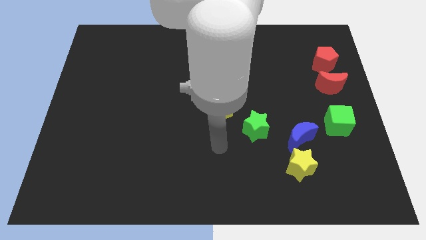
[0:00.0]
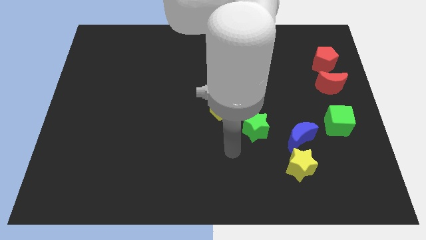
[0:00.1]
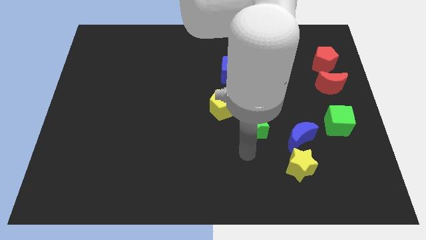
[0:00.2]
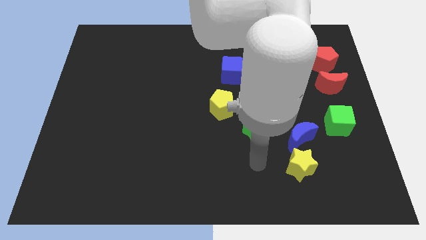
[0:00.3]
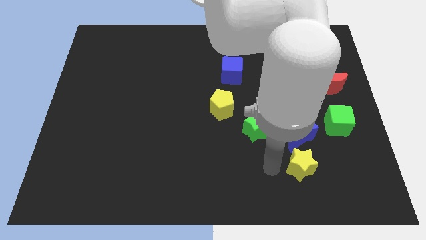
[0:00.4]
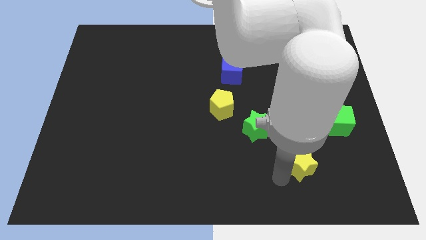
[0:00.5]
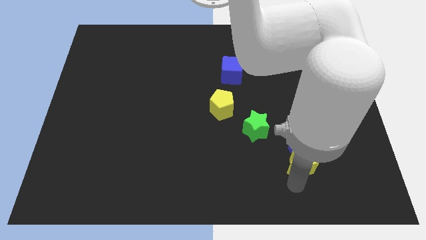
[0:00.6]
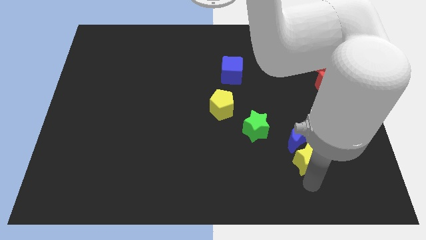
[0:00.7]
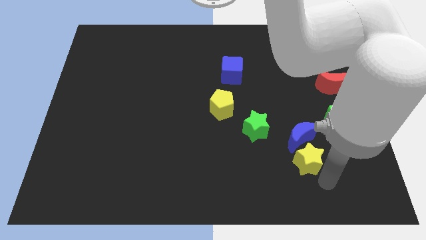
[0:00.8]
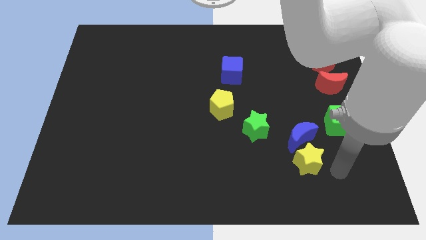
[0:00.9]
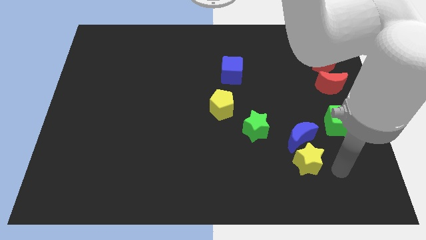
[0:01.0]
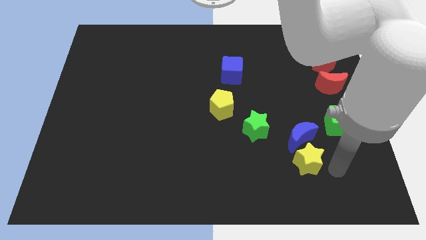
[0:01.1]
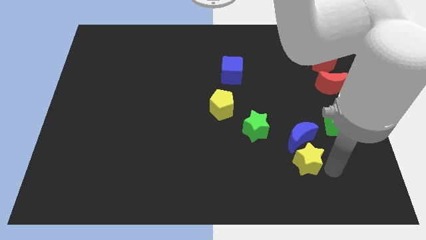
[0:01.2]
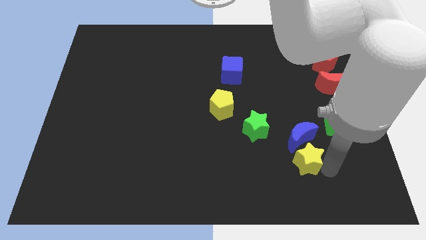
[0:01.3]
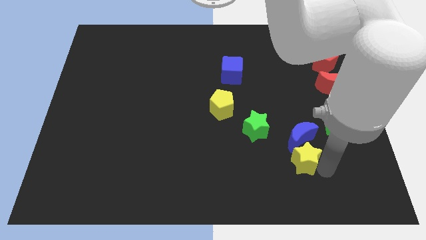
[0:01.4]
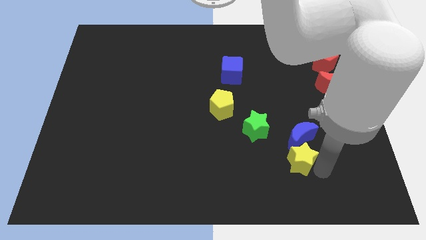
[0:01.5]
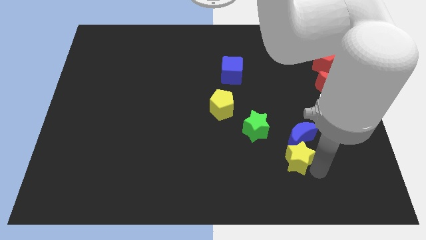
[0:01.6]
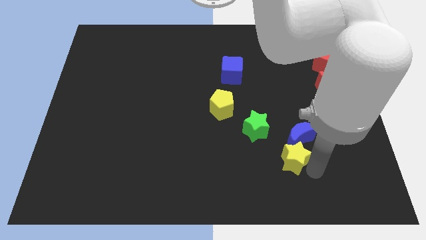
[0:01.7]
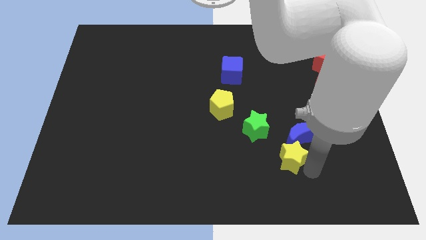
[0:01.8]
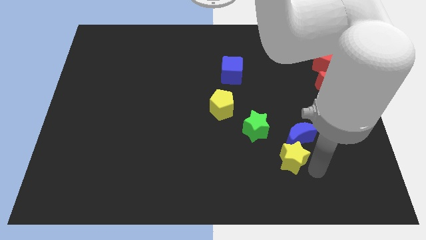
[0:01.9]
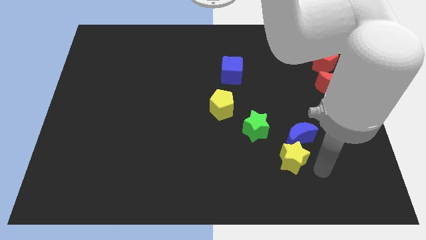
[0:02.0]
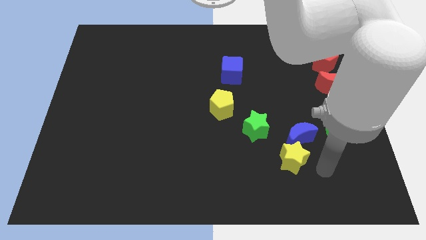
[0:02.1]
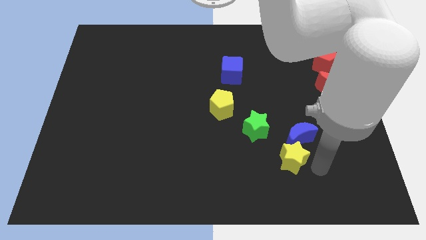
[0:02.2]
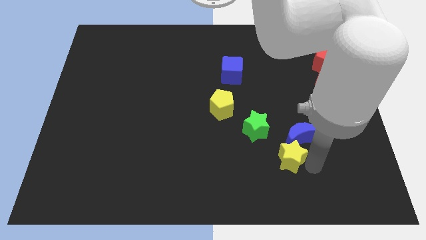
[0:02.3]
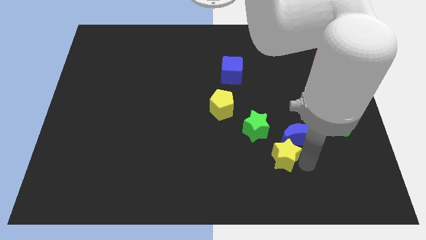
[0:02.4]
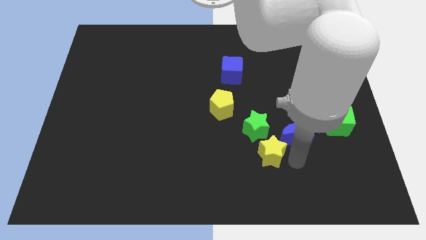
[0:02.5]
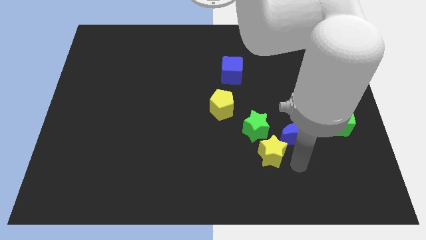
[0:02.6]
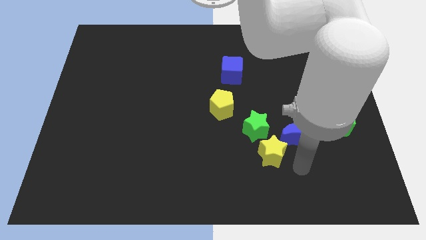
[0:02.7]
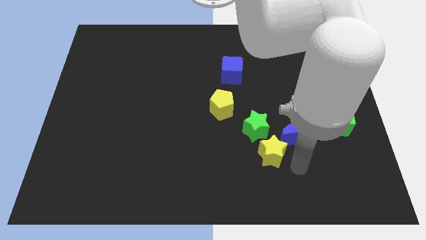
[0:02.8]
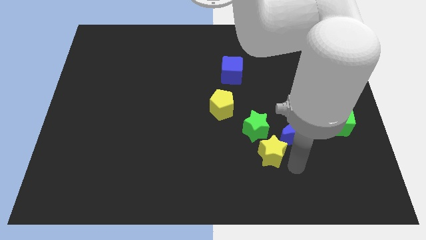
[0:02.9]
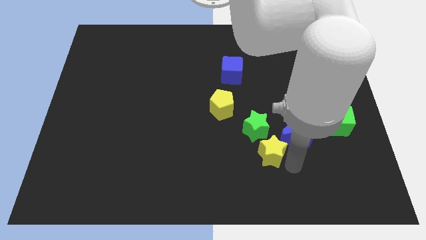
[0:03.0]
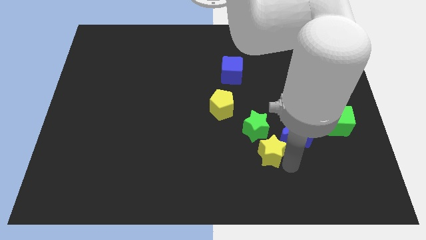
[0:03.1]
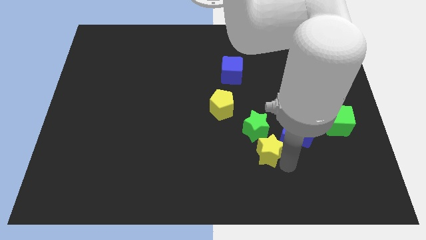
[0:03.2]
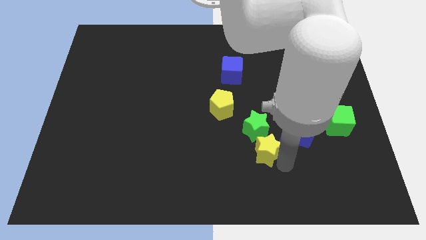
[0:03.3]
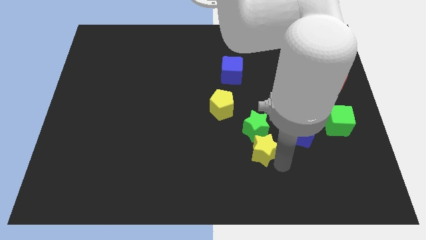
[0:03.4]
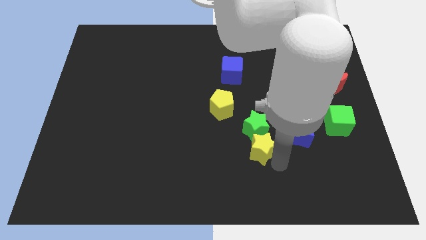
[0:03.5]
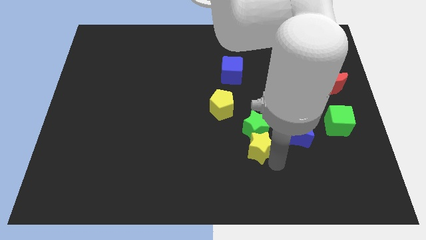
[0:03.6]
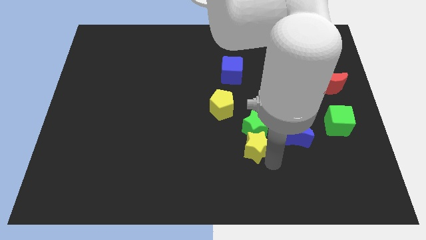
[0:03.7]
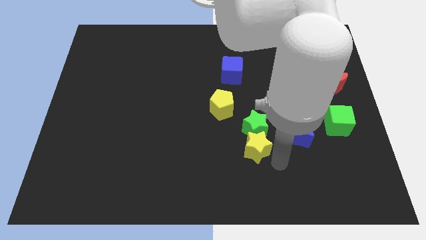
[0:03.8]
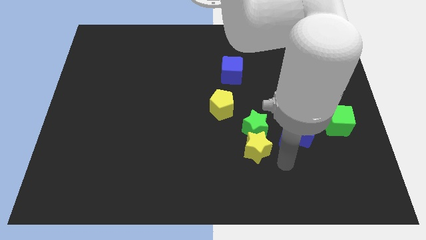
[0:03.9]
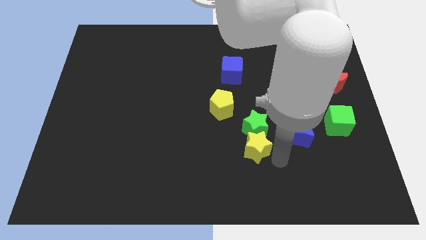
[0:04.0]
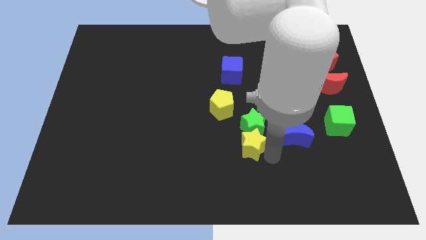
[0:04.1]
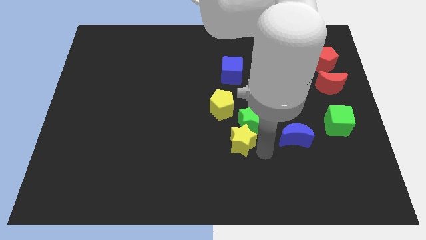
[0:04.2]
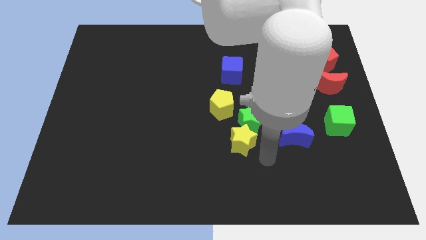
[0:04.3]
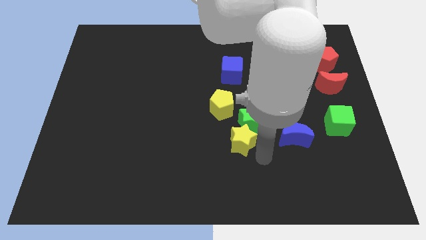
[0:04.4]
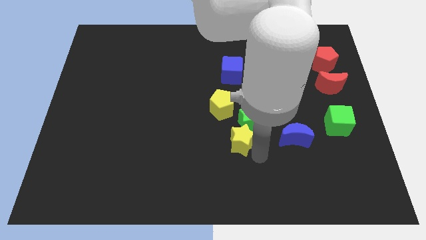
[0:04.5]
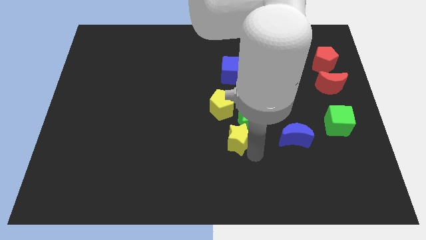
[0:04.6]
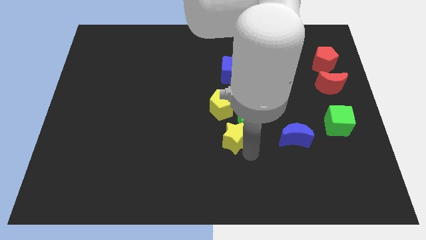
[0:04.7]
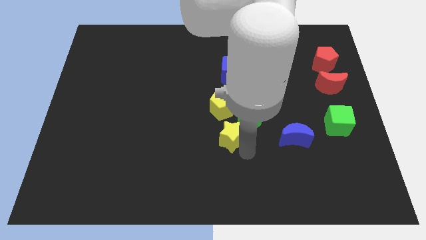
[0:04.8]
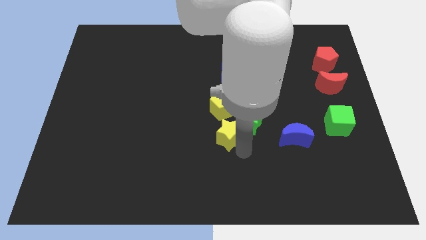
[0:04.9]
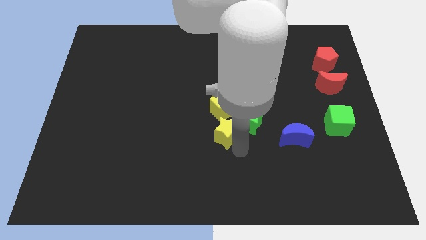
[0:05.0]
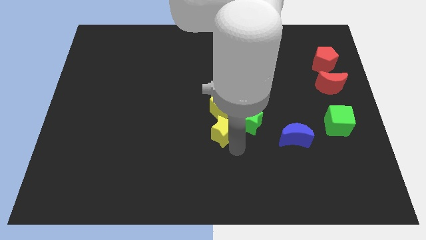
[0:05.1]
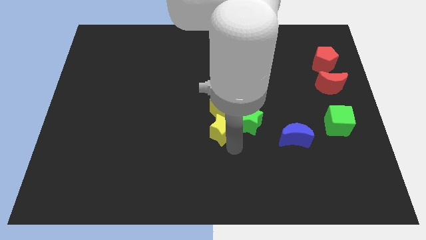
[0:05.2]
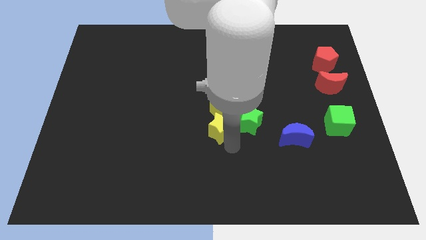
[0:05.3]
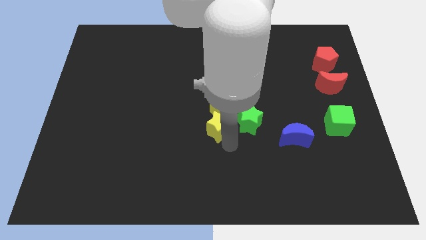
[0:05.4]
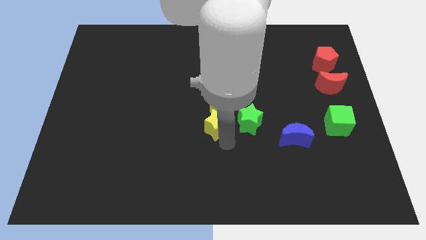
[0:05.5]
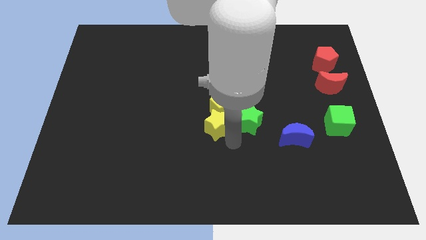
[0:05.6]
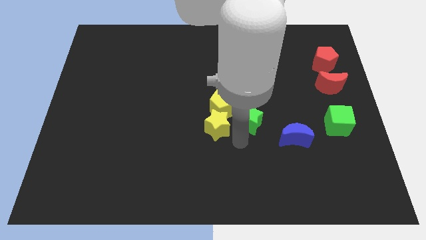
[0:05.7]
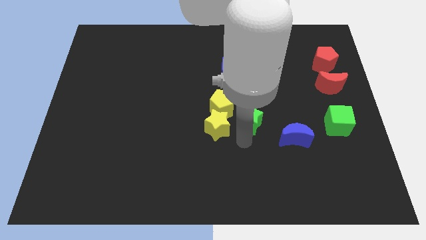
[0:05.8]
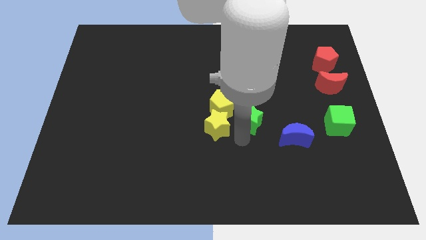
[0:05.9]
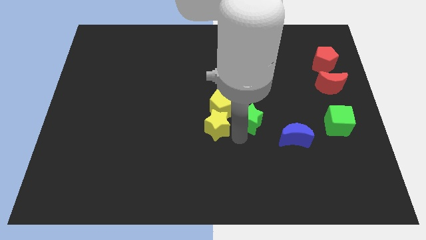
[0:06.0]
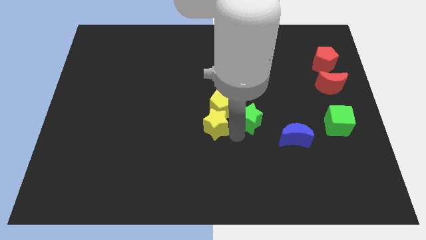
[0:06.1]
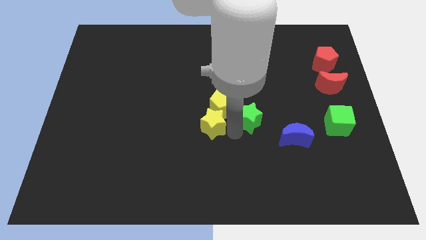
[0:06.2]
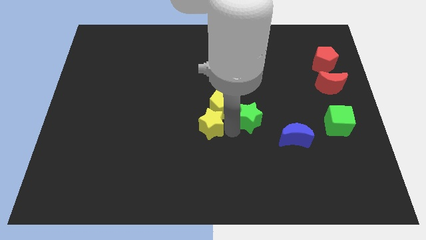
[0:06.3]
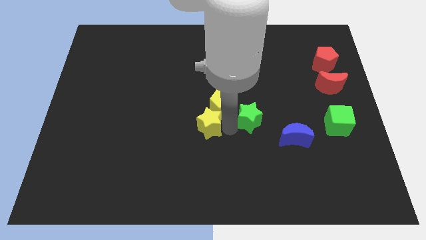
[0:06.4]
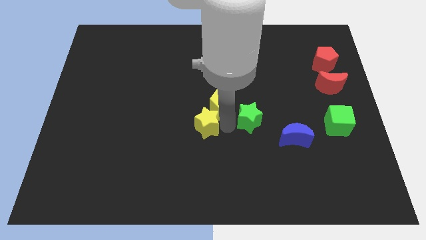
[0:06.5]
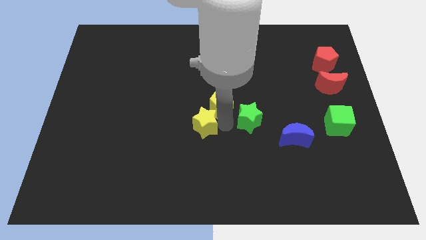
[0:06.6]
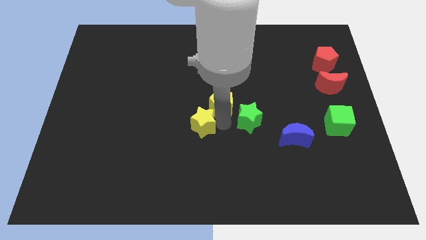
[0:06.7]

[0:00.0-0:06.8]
move the yellow star to the left side of the yellow pentagon
